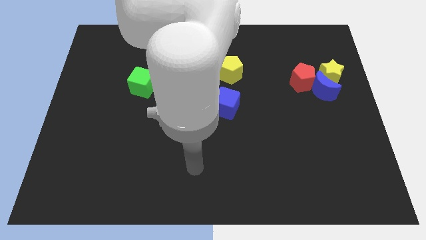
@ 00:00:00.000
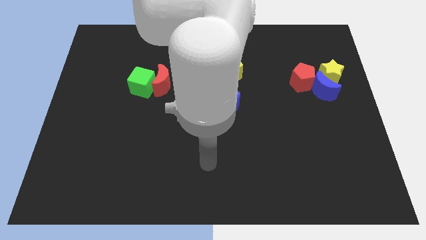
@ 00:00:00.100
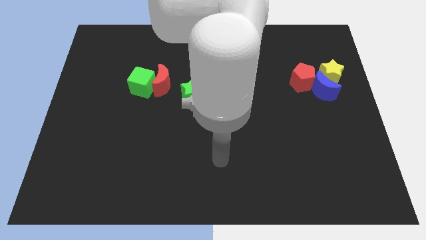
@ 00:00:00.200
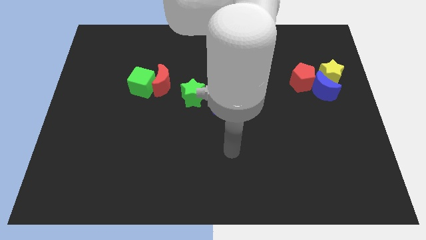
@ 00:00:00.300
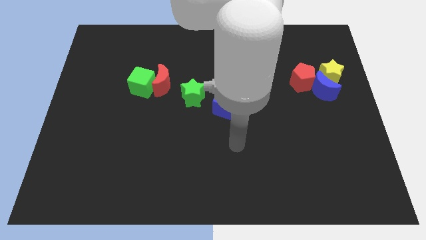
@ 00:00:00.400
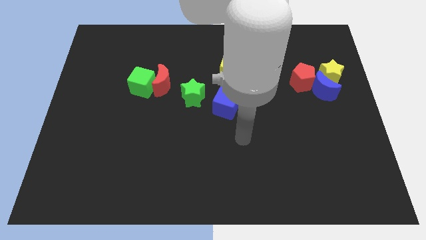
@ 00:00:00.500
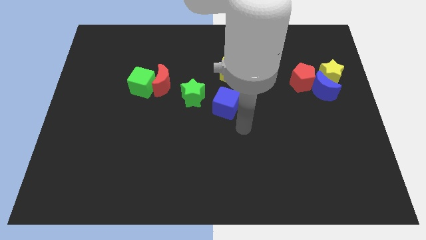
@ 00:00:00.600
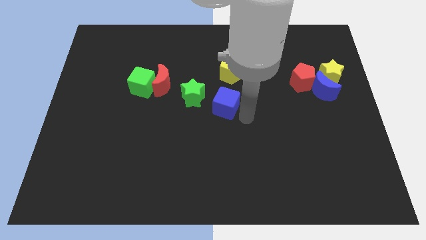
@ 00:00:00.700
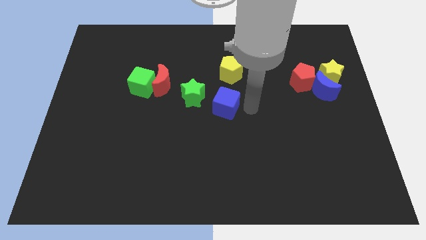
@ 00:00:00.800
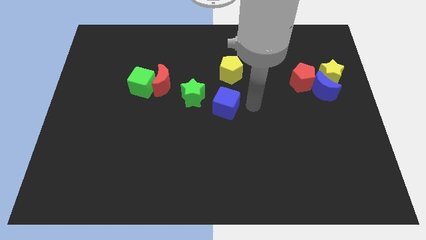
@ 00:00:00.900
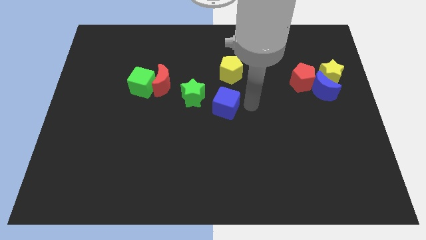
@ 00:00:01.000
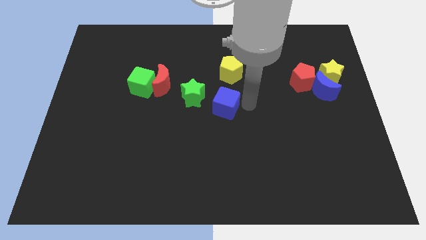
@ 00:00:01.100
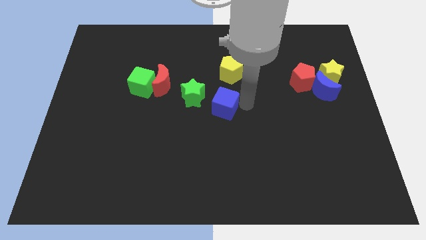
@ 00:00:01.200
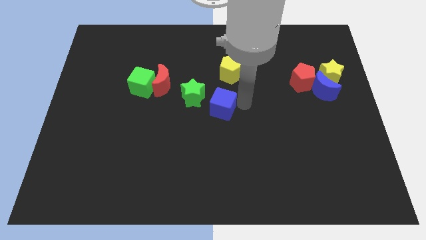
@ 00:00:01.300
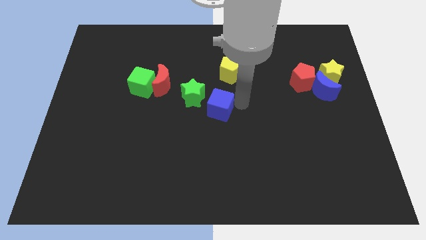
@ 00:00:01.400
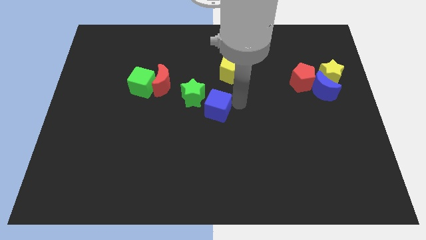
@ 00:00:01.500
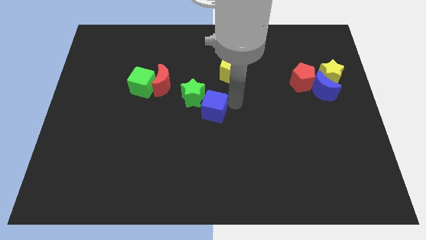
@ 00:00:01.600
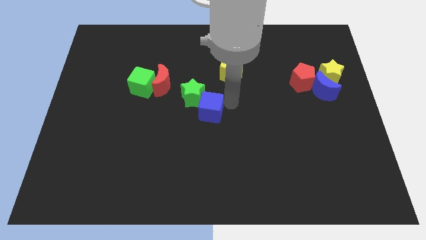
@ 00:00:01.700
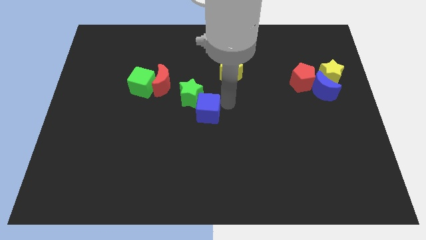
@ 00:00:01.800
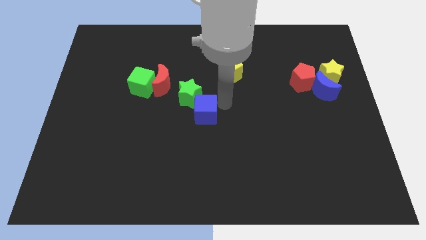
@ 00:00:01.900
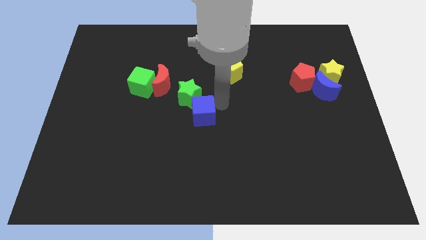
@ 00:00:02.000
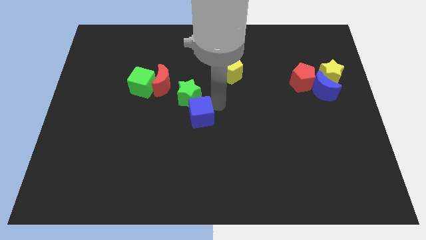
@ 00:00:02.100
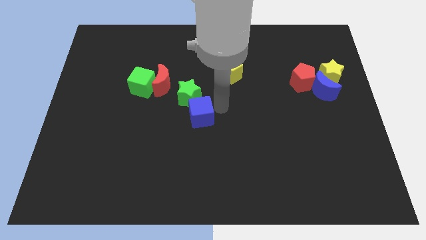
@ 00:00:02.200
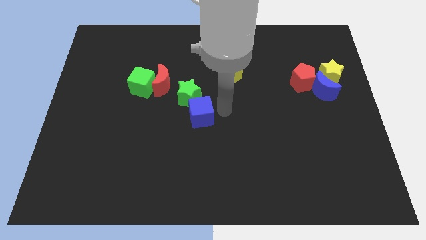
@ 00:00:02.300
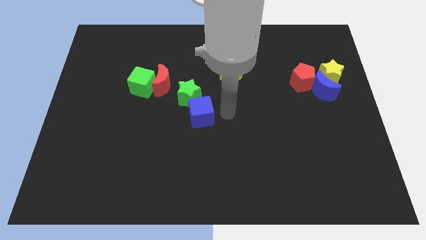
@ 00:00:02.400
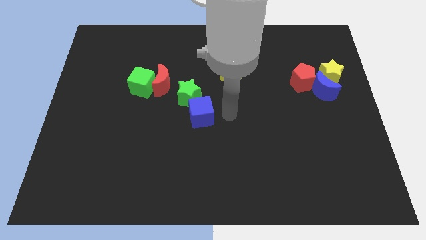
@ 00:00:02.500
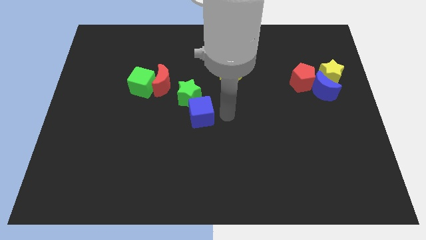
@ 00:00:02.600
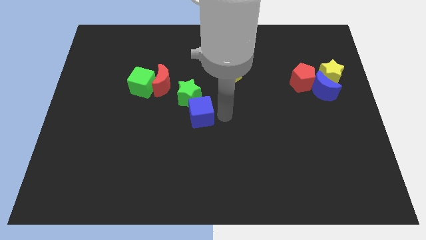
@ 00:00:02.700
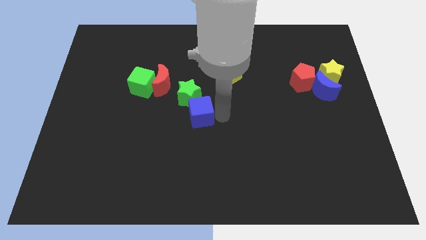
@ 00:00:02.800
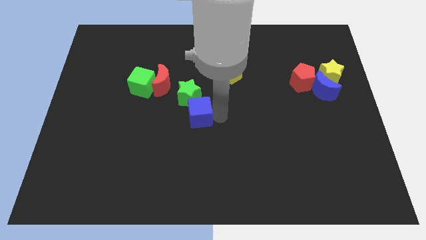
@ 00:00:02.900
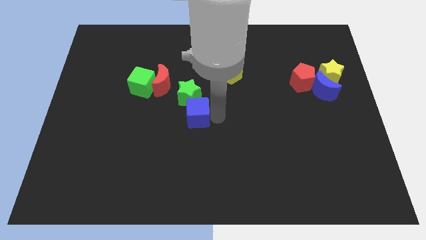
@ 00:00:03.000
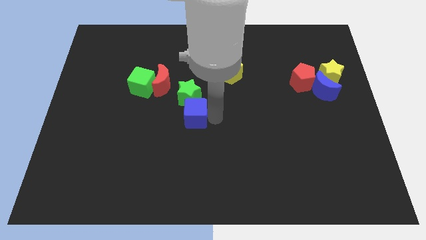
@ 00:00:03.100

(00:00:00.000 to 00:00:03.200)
slightly move the blue cube left

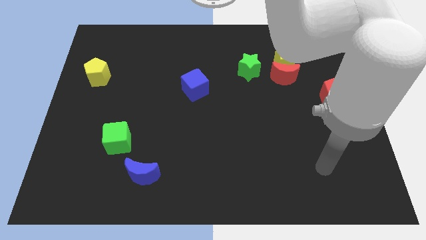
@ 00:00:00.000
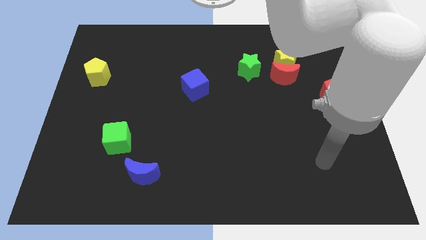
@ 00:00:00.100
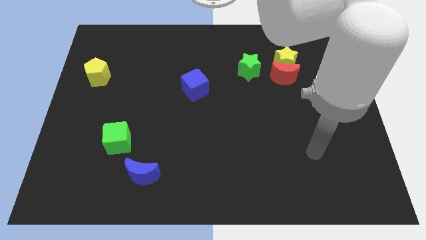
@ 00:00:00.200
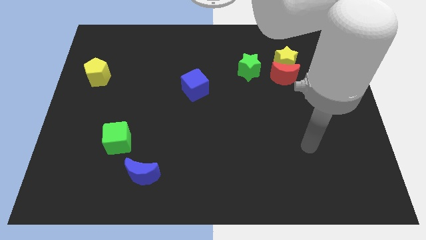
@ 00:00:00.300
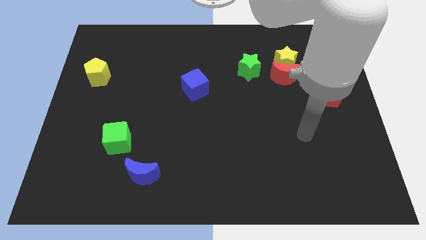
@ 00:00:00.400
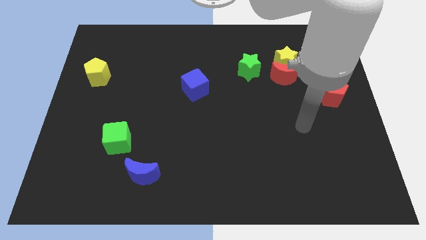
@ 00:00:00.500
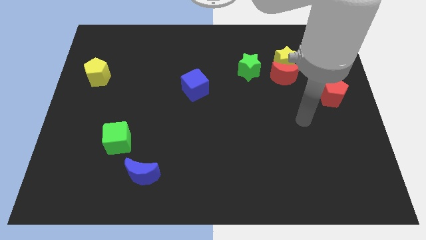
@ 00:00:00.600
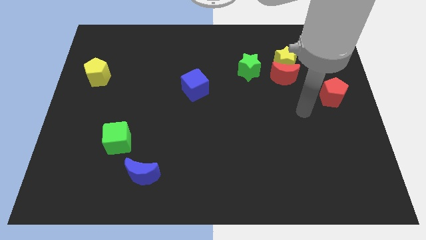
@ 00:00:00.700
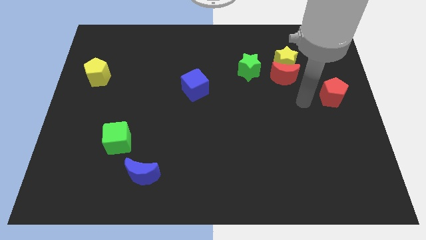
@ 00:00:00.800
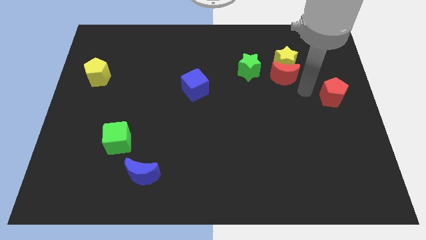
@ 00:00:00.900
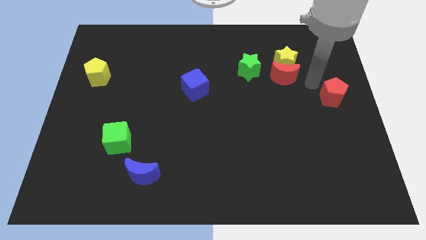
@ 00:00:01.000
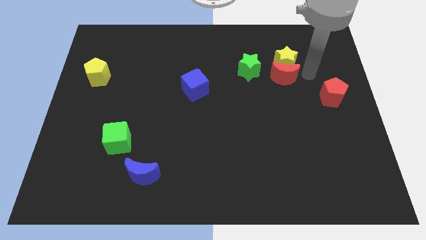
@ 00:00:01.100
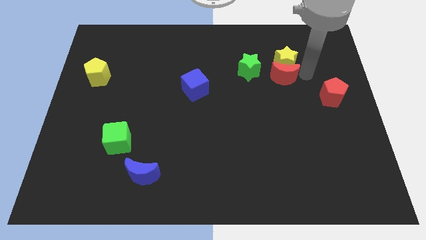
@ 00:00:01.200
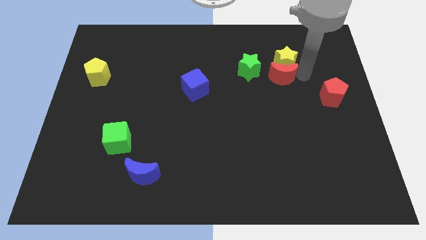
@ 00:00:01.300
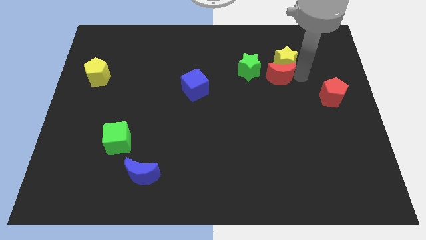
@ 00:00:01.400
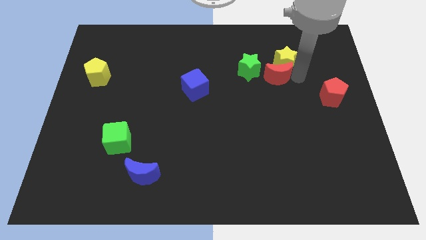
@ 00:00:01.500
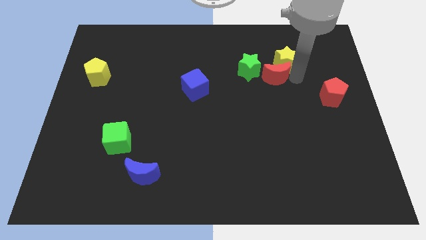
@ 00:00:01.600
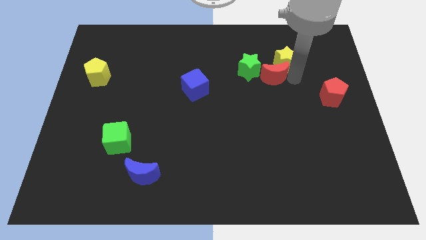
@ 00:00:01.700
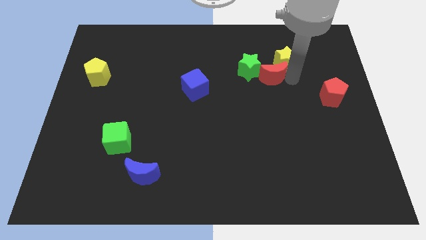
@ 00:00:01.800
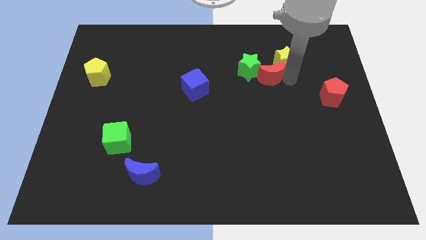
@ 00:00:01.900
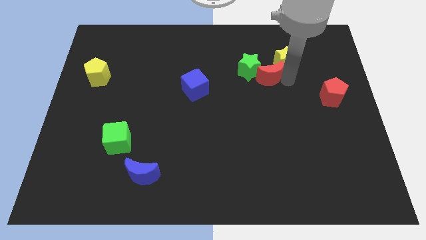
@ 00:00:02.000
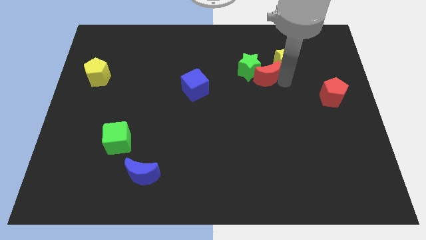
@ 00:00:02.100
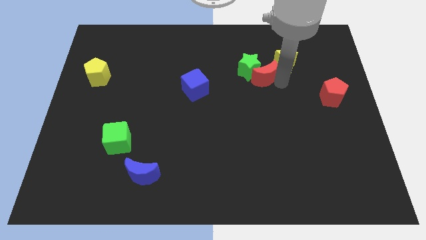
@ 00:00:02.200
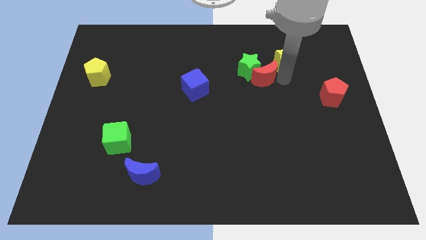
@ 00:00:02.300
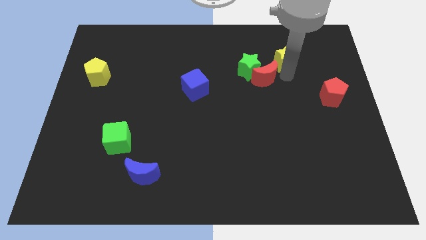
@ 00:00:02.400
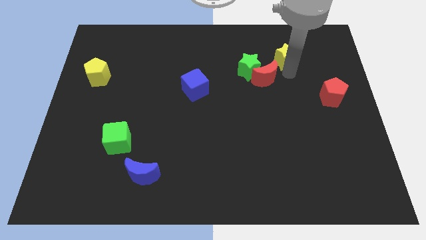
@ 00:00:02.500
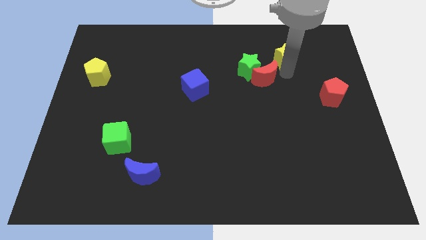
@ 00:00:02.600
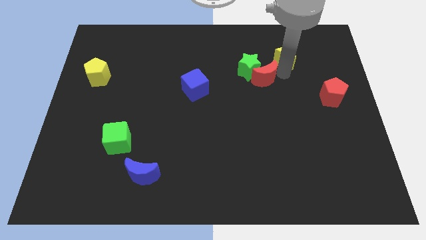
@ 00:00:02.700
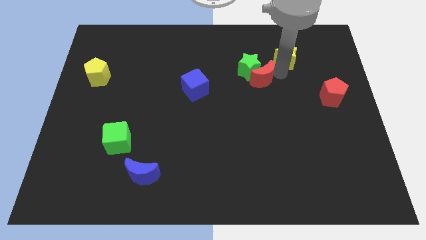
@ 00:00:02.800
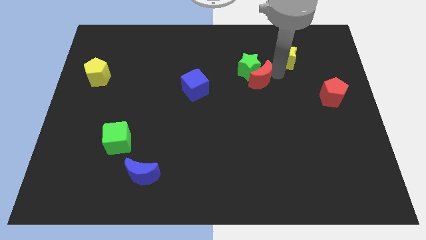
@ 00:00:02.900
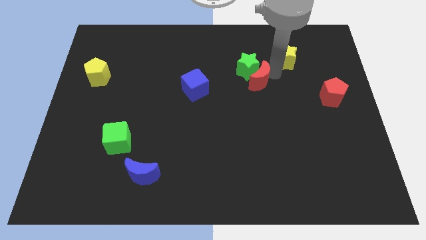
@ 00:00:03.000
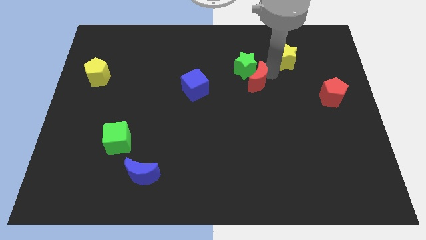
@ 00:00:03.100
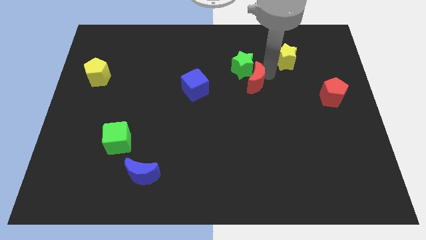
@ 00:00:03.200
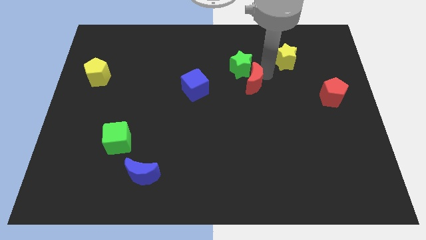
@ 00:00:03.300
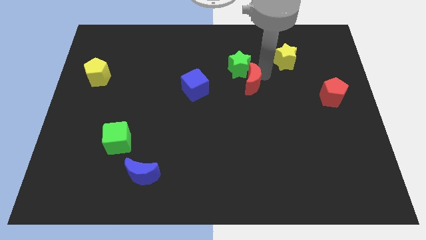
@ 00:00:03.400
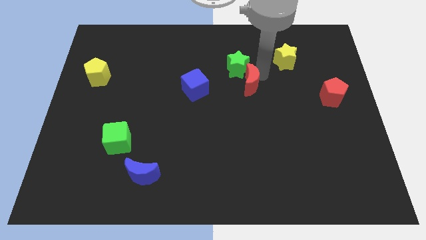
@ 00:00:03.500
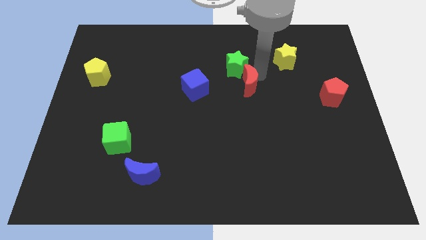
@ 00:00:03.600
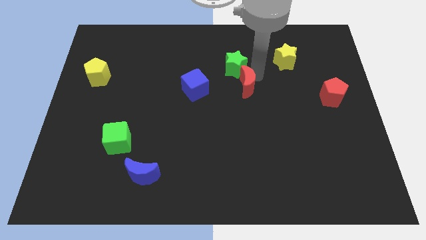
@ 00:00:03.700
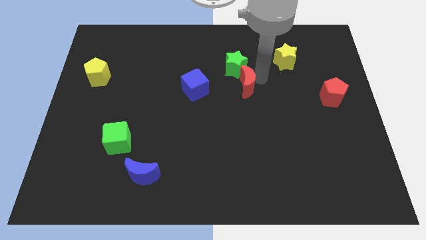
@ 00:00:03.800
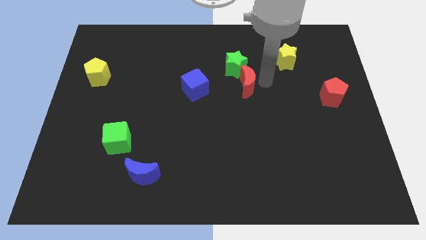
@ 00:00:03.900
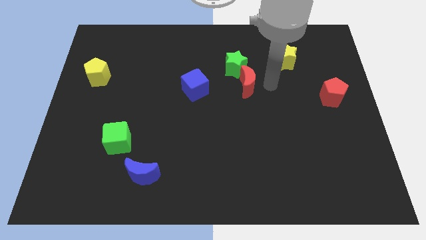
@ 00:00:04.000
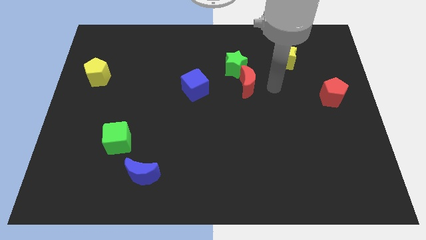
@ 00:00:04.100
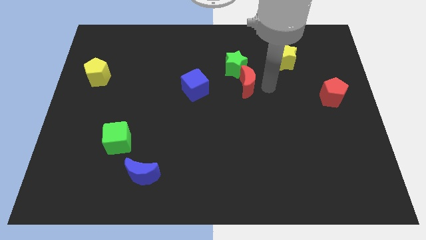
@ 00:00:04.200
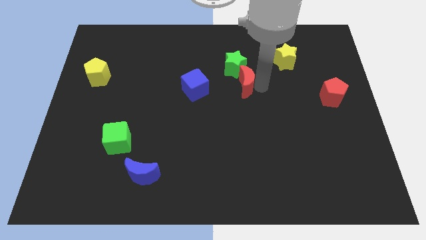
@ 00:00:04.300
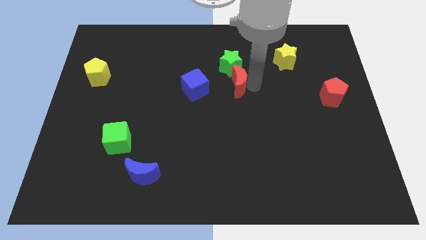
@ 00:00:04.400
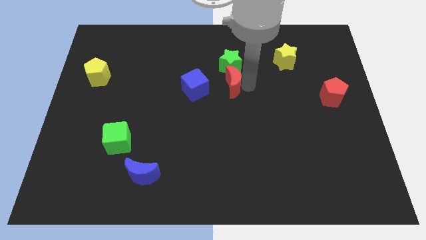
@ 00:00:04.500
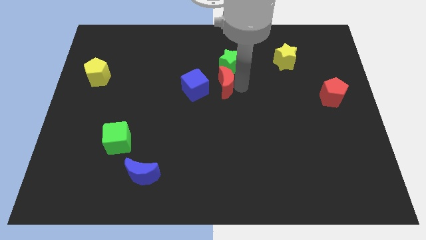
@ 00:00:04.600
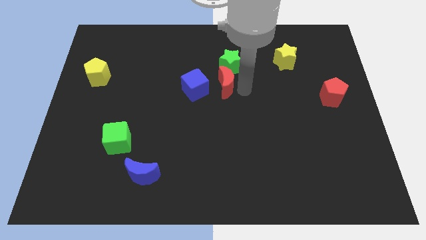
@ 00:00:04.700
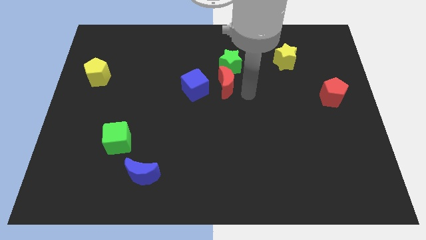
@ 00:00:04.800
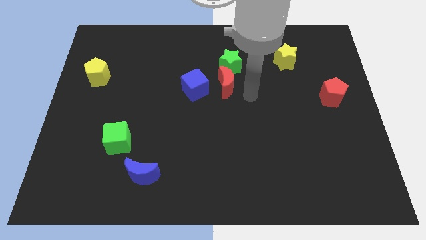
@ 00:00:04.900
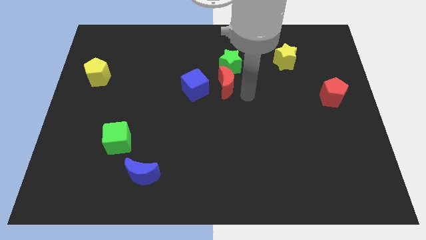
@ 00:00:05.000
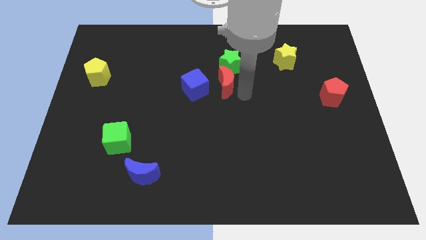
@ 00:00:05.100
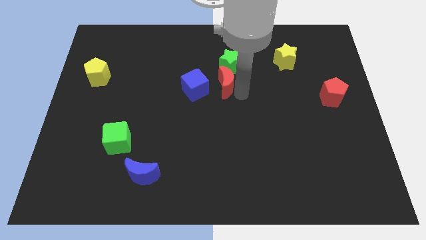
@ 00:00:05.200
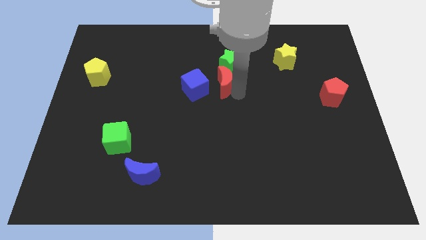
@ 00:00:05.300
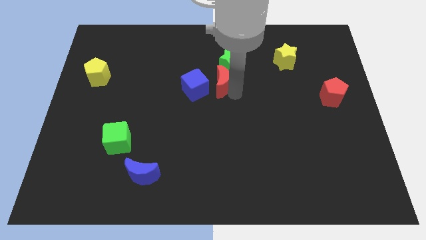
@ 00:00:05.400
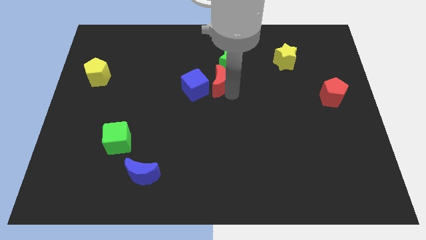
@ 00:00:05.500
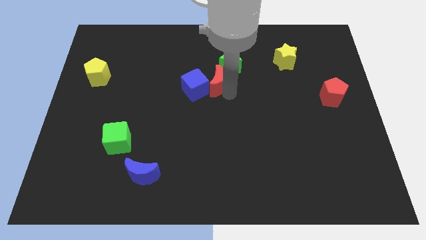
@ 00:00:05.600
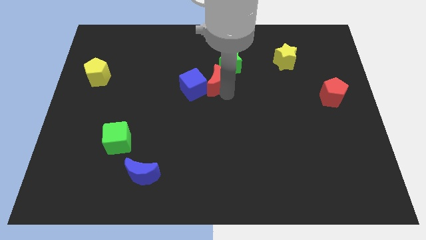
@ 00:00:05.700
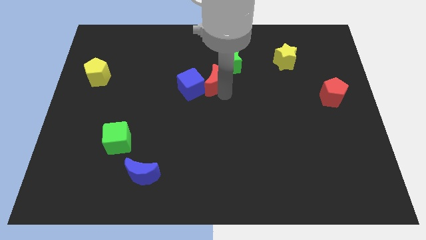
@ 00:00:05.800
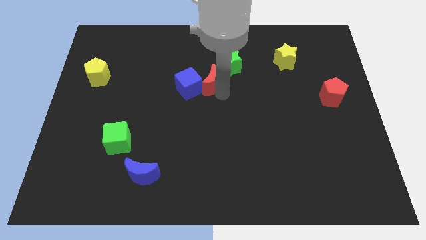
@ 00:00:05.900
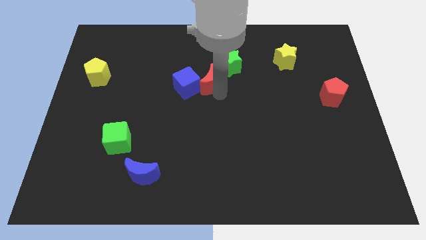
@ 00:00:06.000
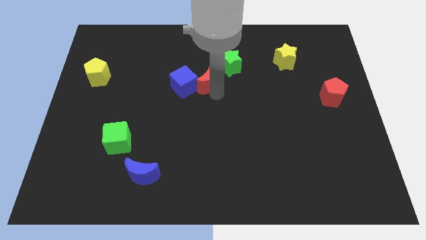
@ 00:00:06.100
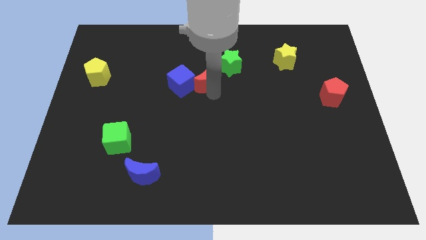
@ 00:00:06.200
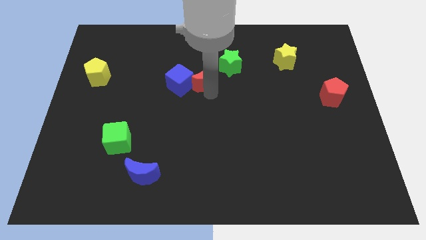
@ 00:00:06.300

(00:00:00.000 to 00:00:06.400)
push the red moon left
